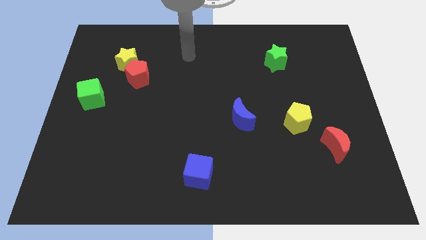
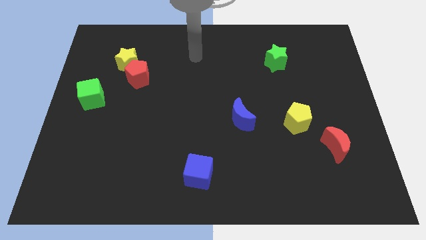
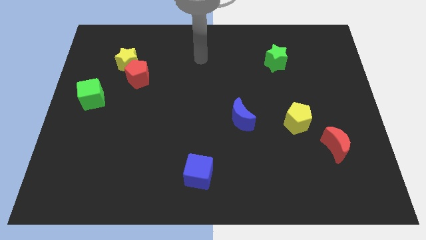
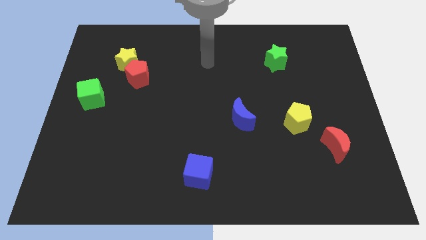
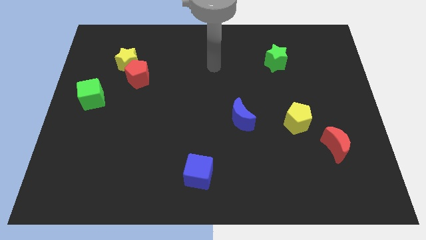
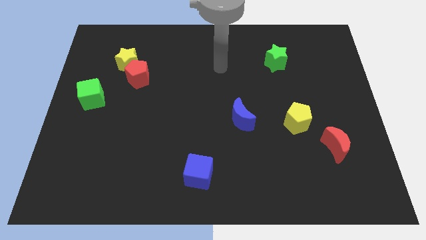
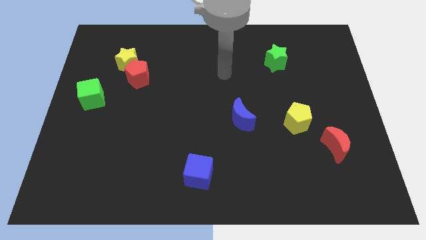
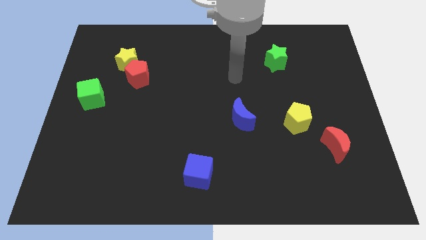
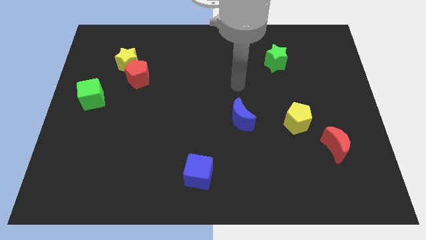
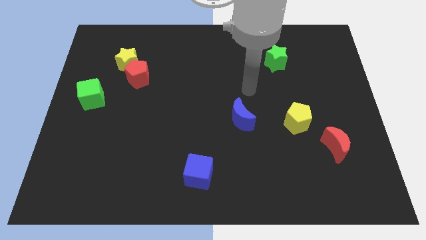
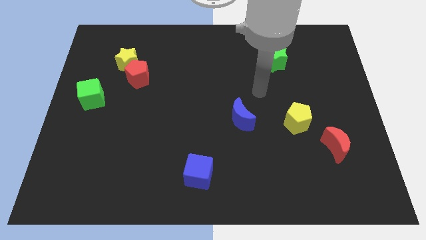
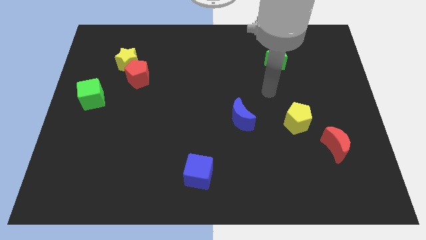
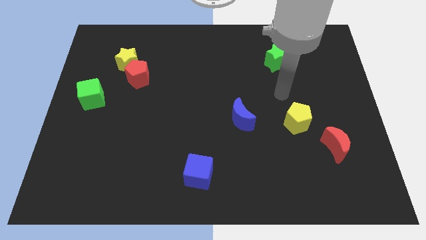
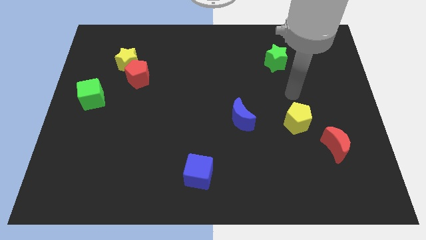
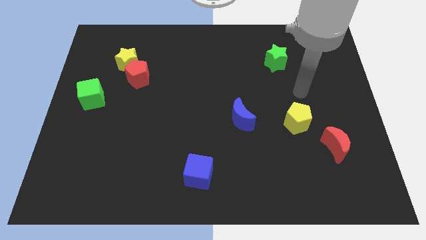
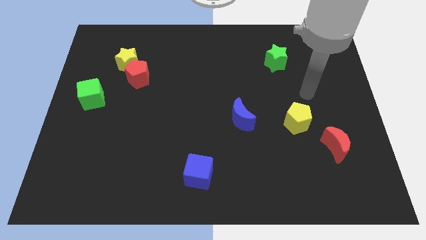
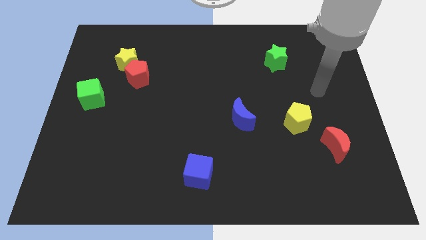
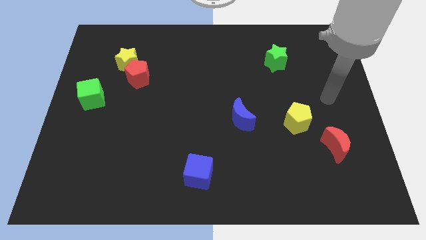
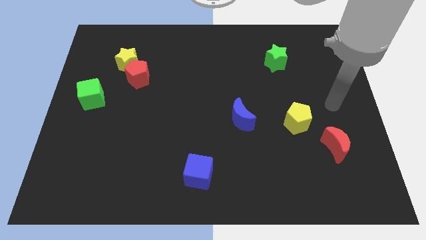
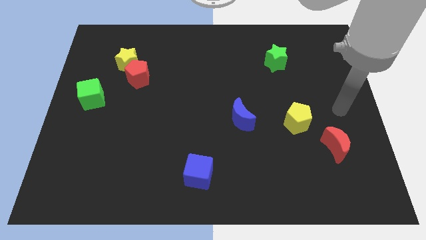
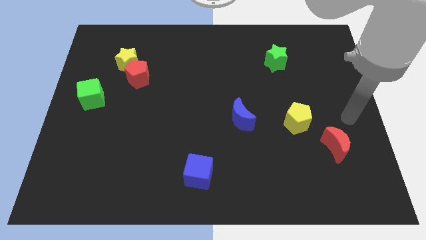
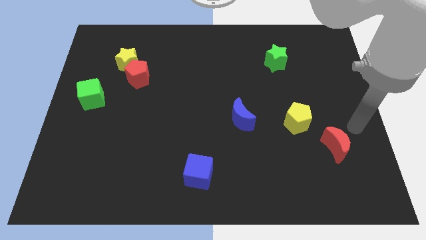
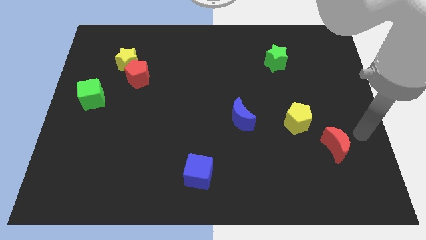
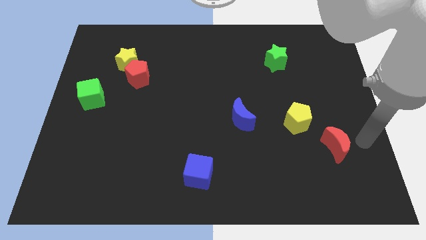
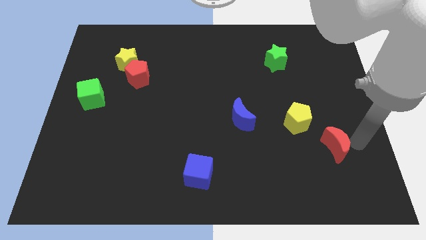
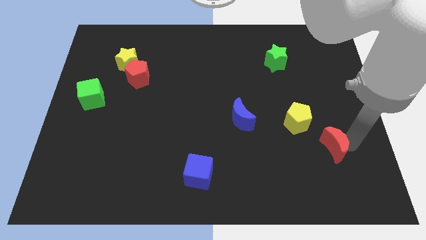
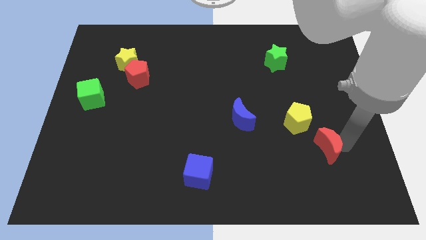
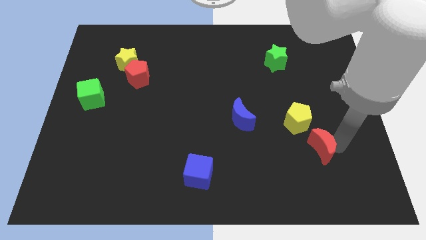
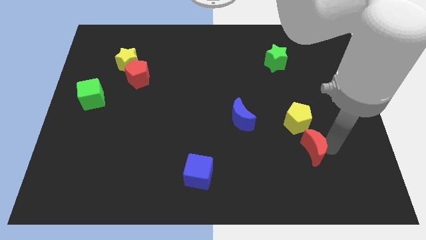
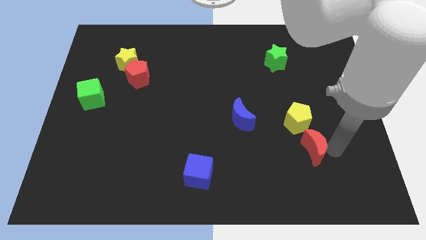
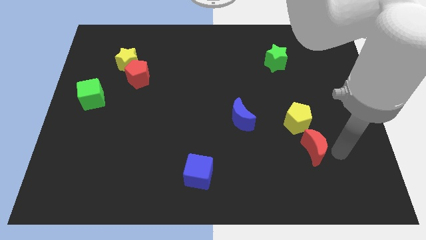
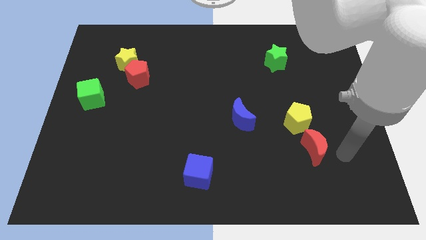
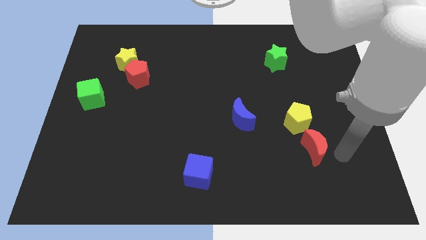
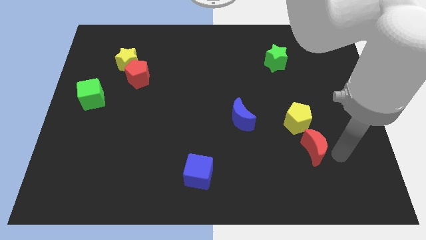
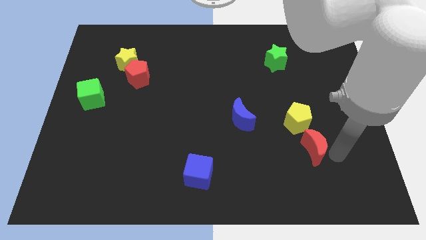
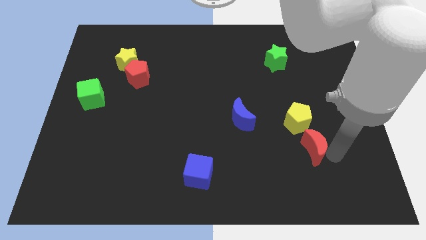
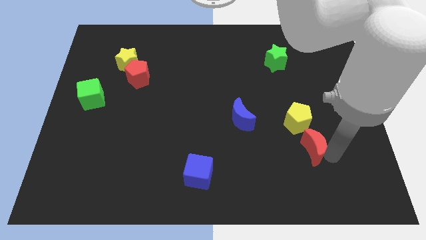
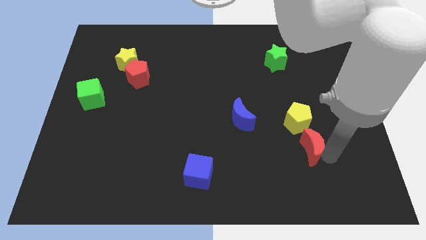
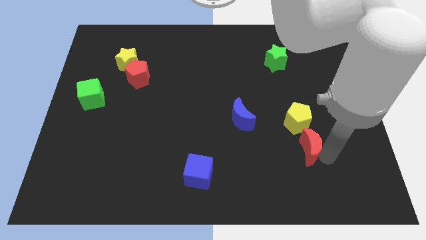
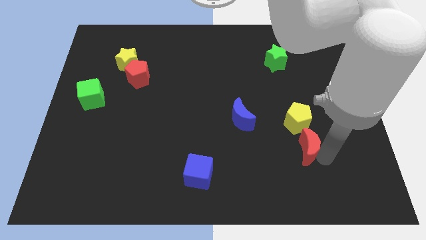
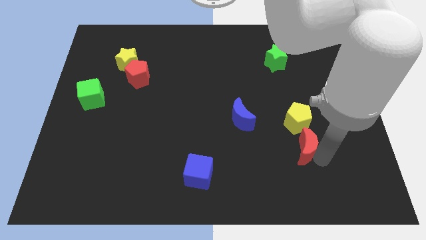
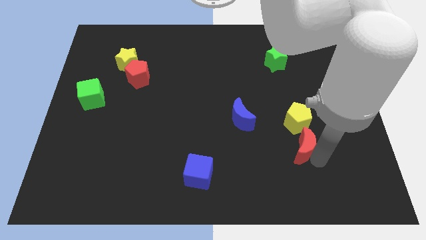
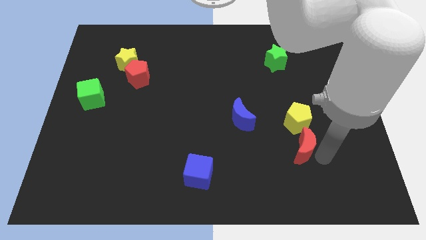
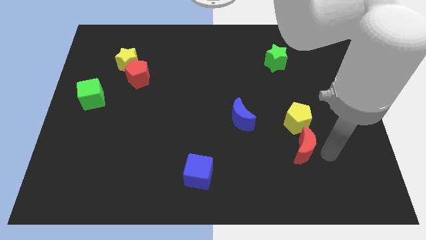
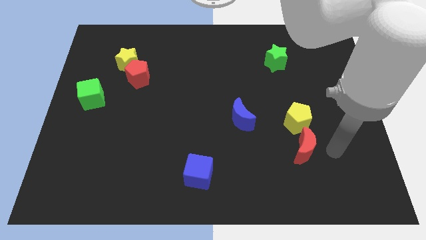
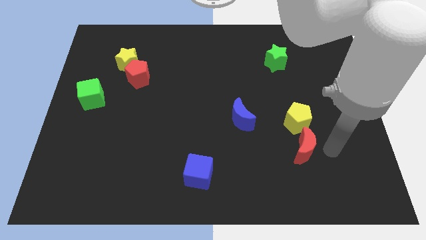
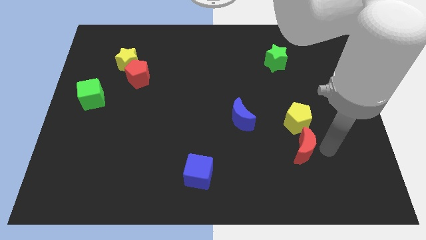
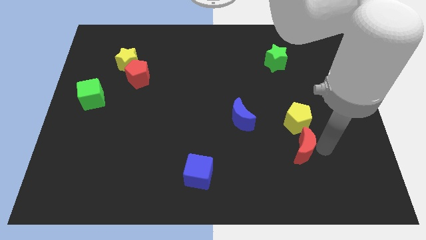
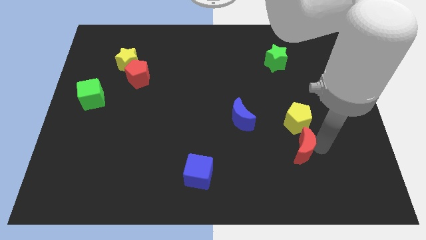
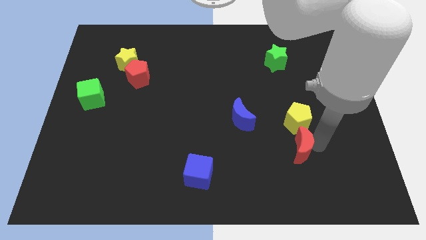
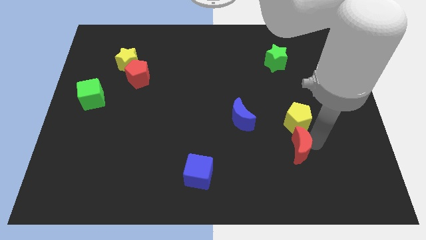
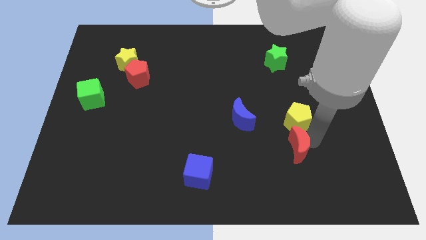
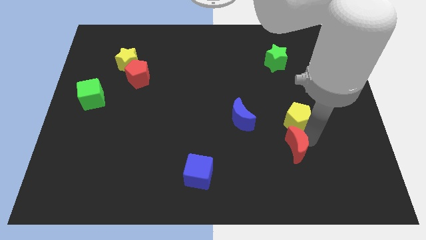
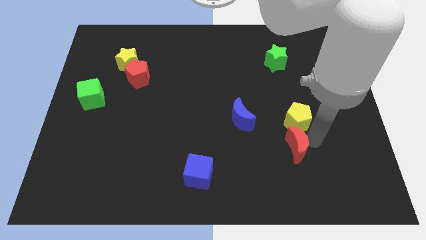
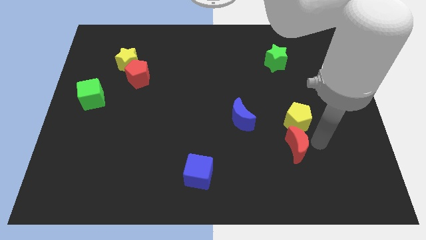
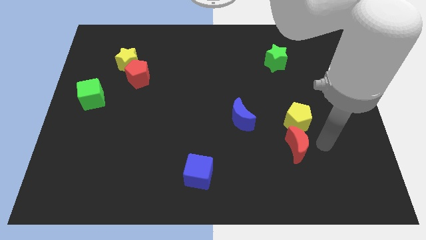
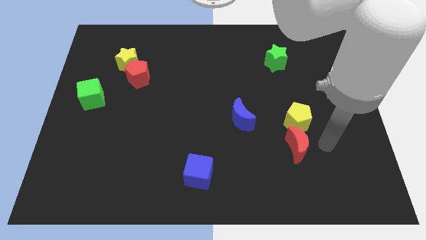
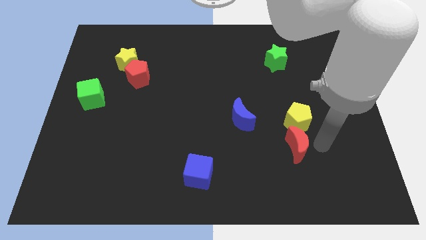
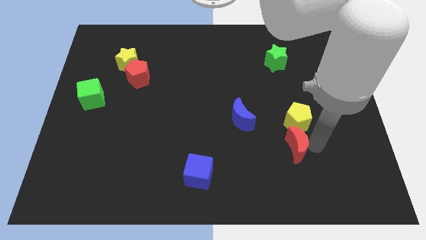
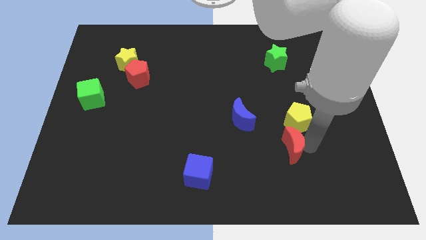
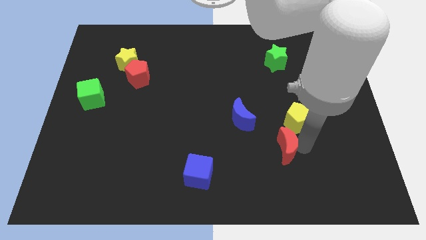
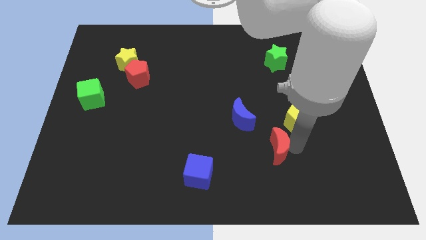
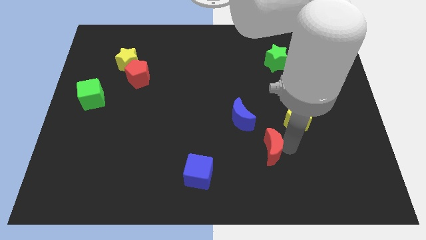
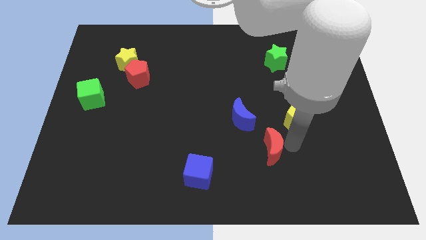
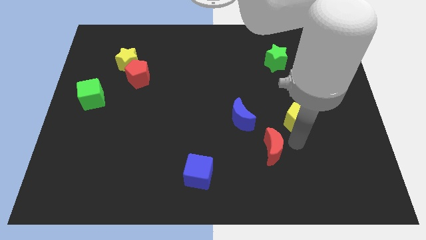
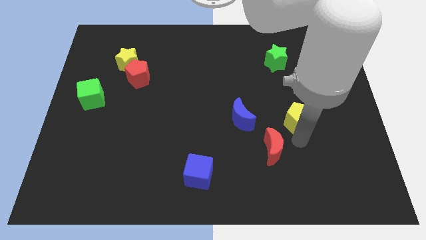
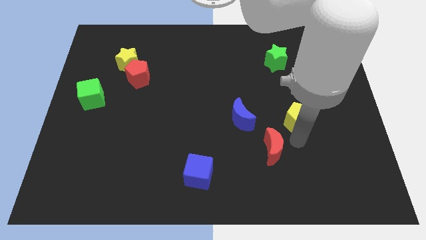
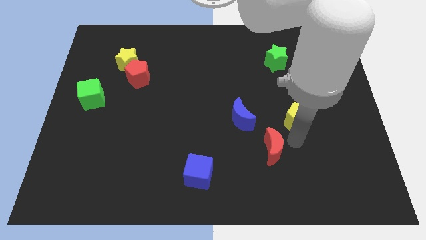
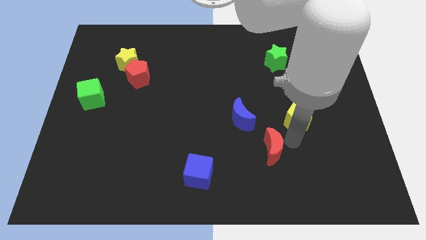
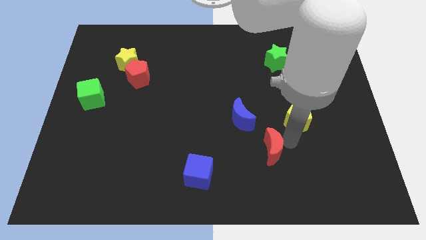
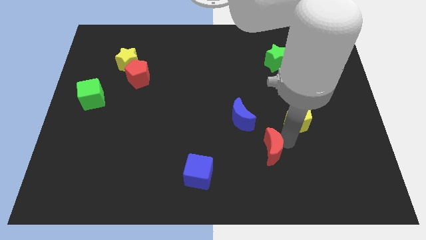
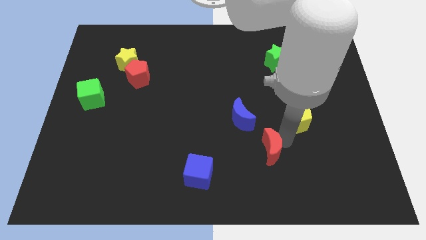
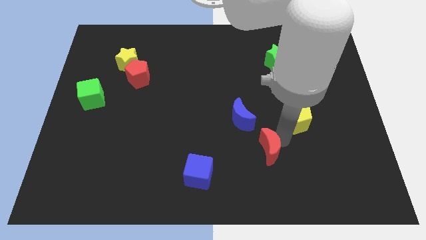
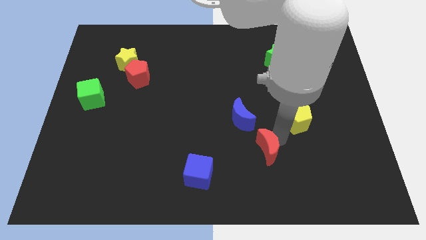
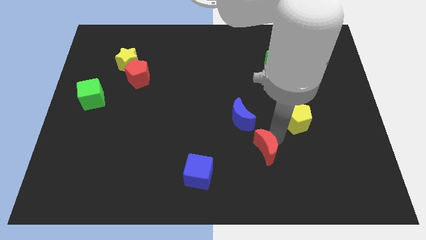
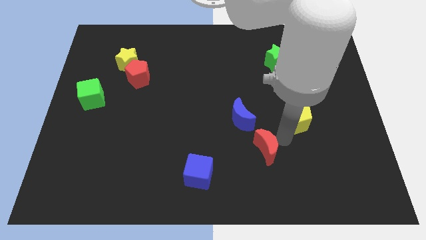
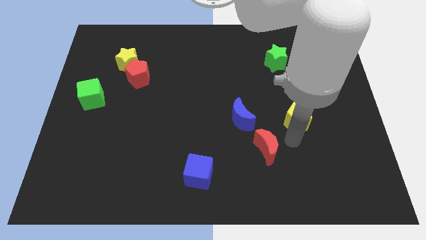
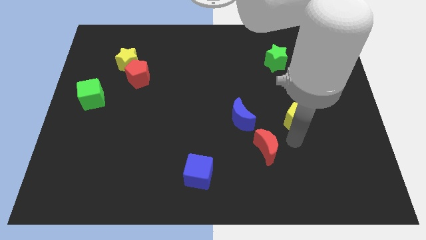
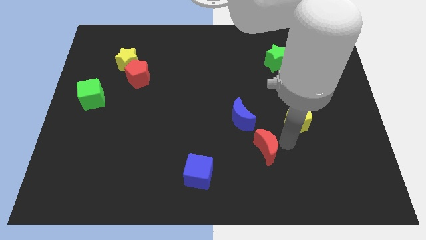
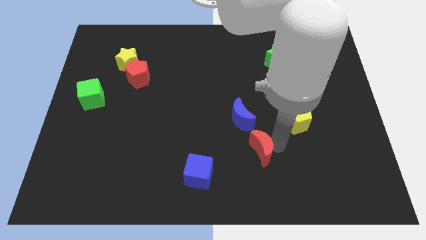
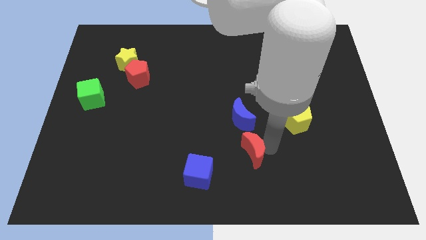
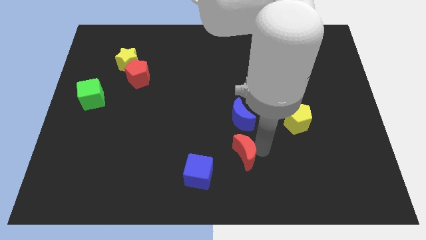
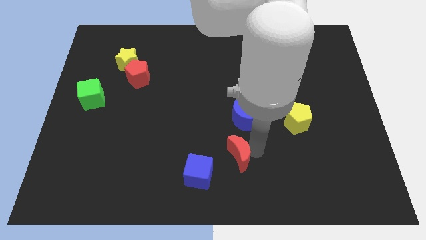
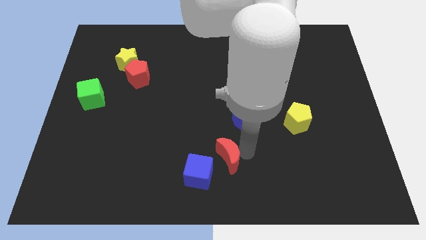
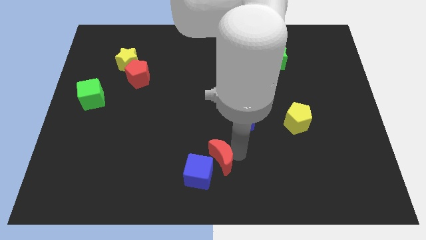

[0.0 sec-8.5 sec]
put the red moon close to the blue cube
